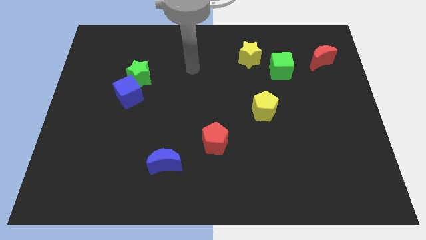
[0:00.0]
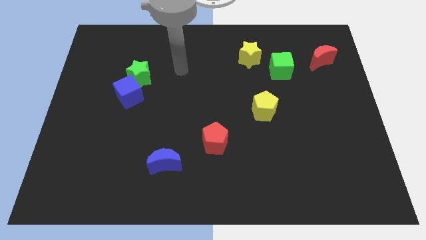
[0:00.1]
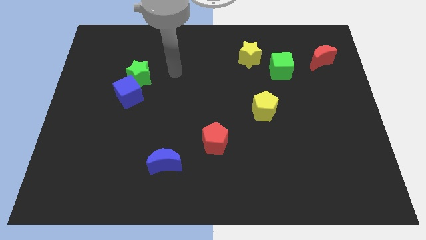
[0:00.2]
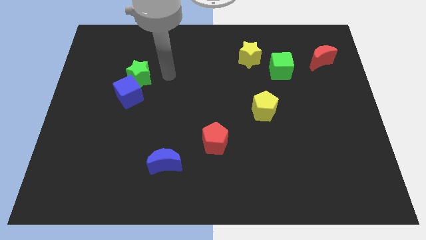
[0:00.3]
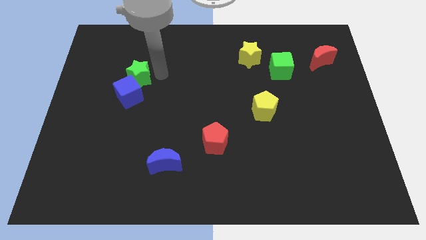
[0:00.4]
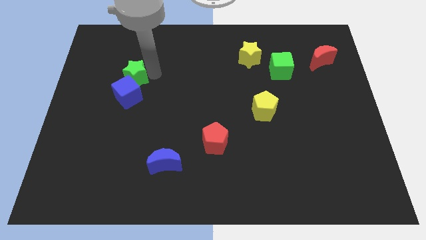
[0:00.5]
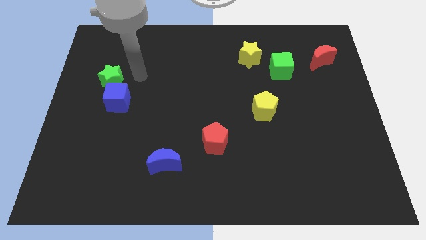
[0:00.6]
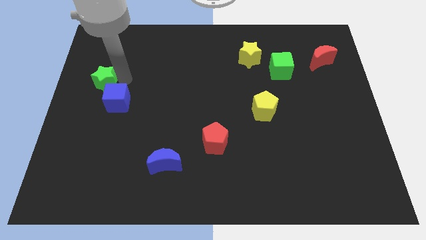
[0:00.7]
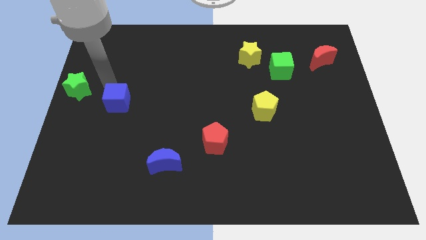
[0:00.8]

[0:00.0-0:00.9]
move the blue cube away from the green star

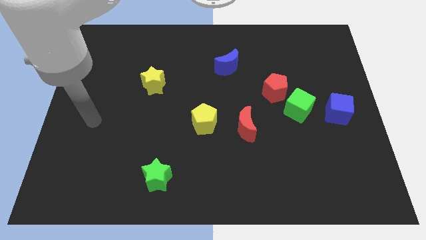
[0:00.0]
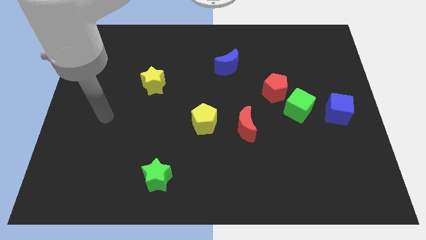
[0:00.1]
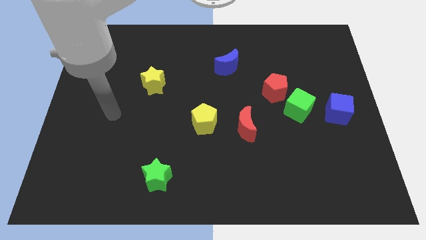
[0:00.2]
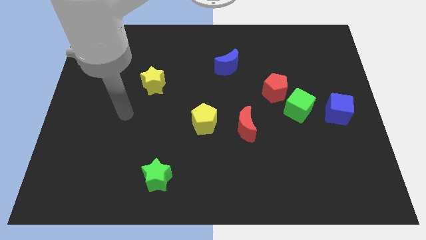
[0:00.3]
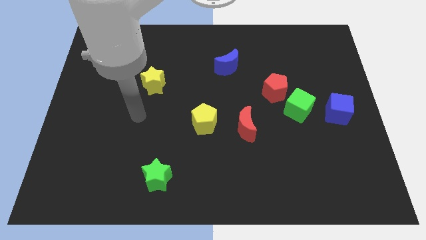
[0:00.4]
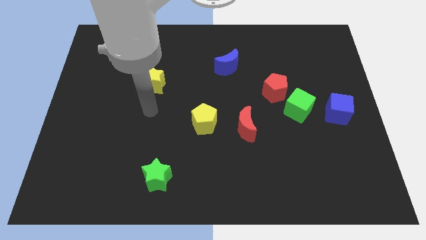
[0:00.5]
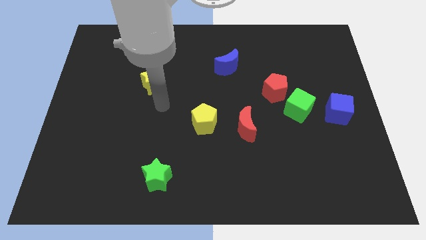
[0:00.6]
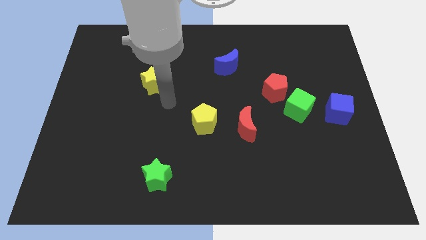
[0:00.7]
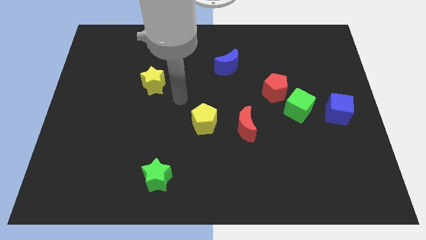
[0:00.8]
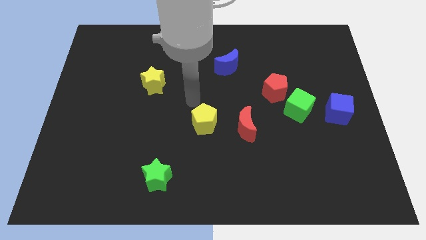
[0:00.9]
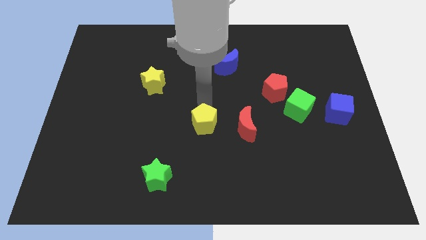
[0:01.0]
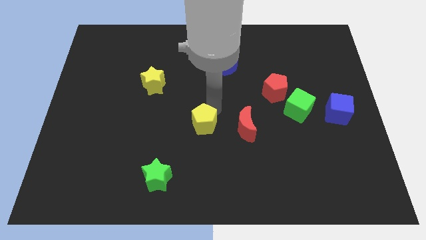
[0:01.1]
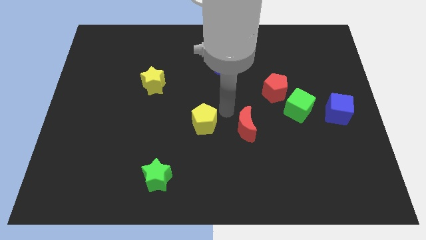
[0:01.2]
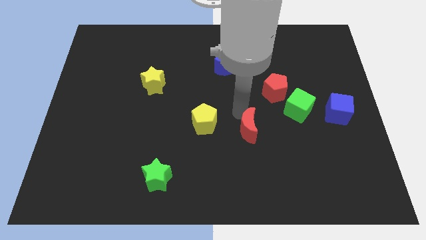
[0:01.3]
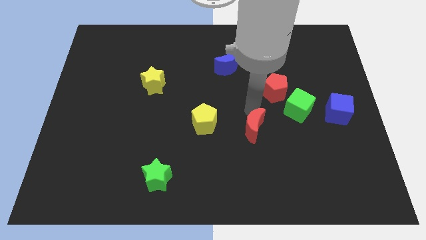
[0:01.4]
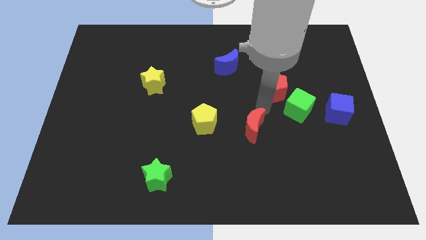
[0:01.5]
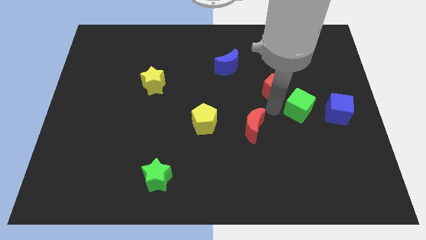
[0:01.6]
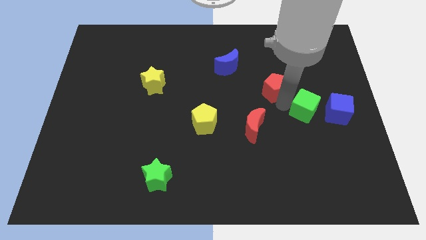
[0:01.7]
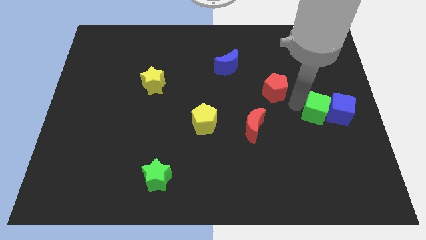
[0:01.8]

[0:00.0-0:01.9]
separate the red pentagon from the green cube

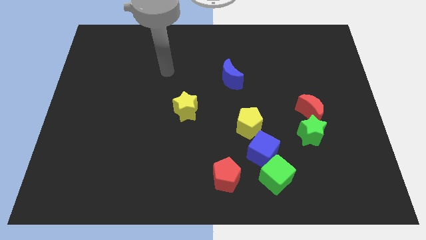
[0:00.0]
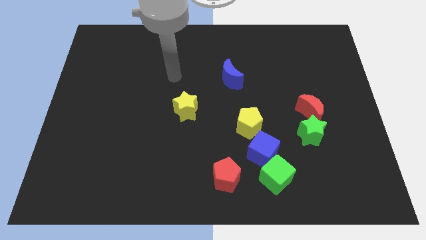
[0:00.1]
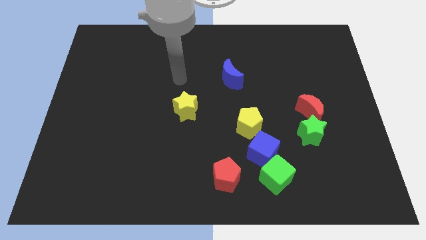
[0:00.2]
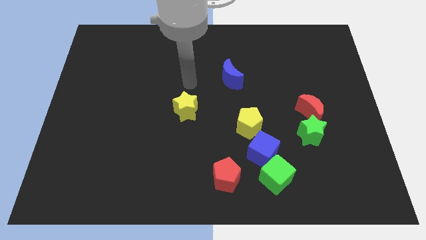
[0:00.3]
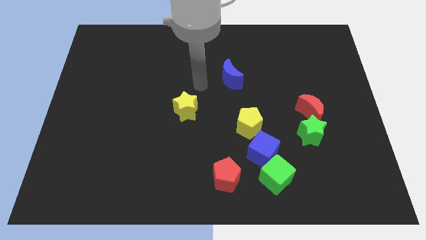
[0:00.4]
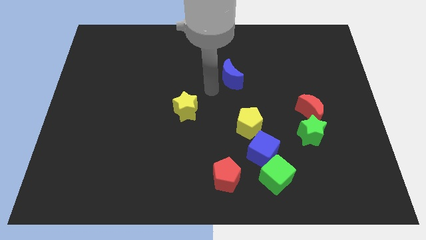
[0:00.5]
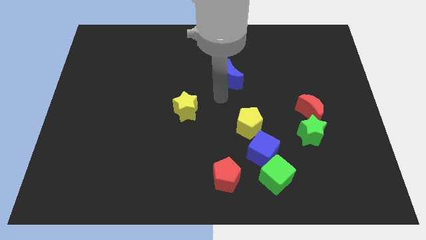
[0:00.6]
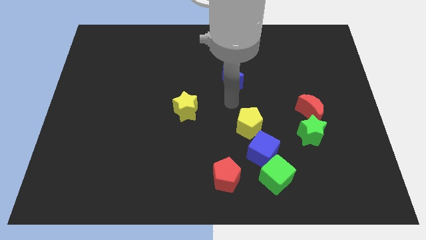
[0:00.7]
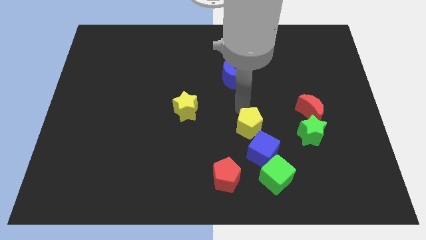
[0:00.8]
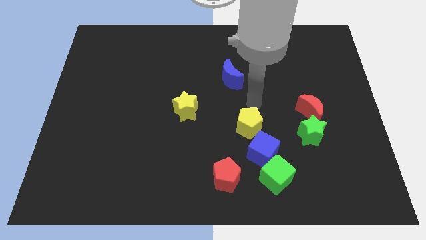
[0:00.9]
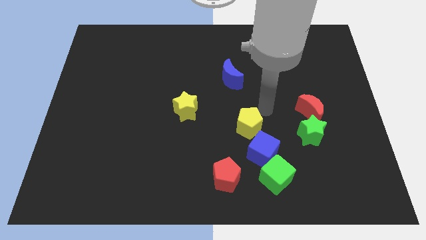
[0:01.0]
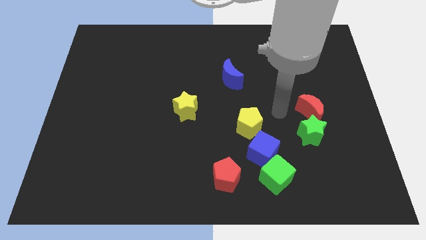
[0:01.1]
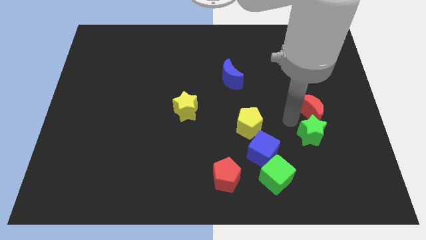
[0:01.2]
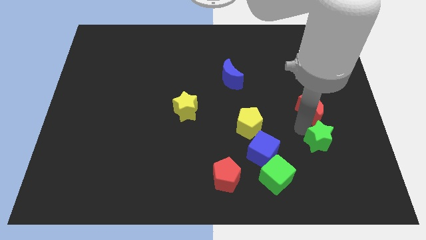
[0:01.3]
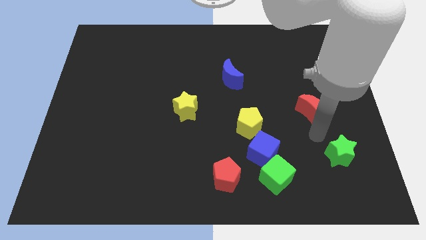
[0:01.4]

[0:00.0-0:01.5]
separate the red moon from the green star

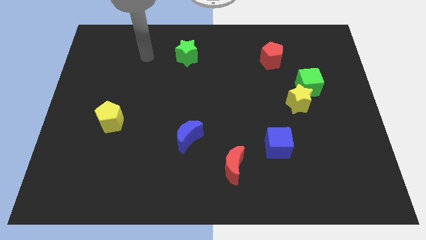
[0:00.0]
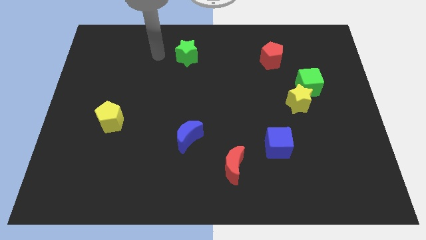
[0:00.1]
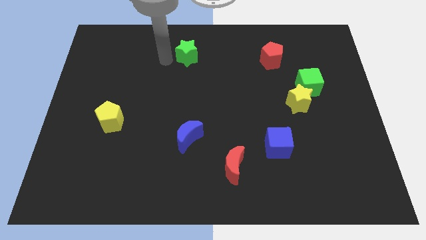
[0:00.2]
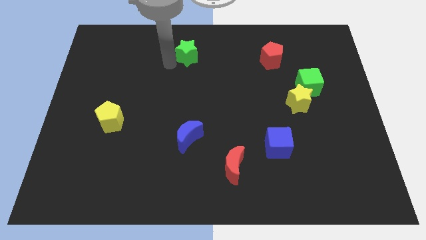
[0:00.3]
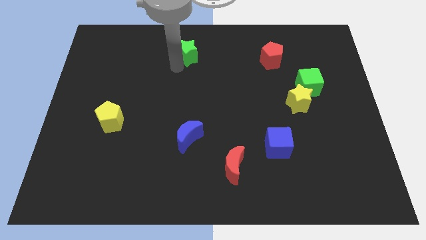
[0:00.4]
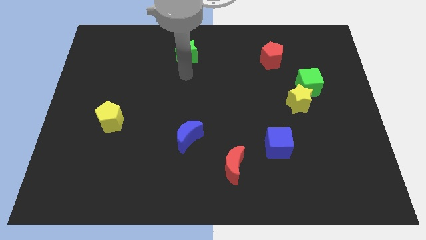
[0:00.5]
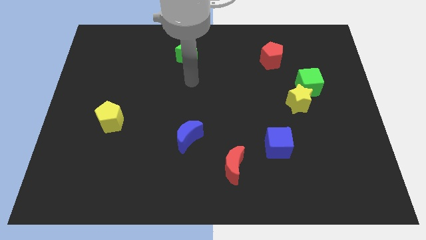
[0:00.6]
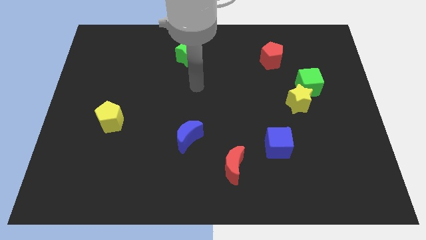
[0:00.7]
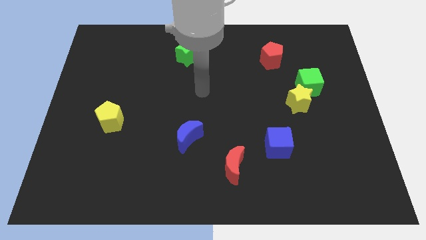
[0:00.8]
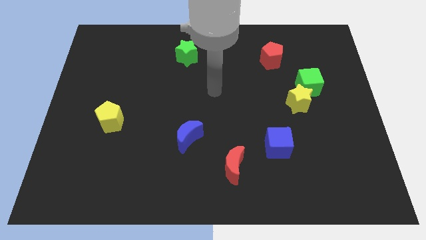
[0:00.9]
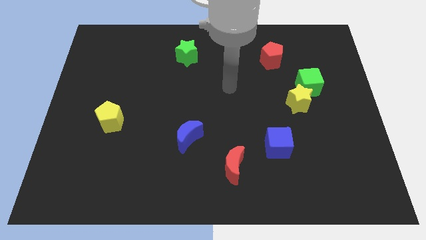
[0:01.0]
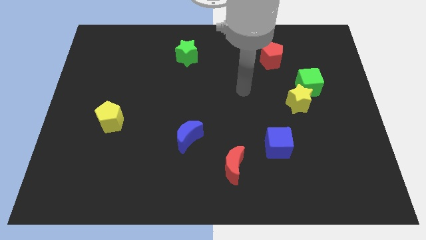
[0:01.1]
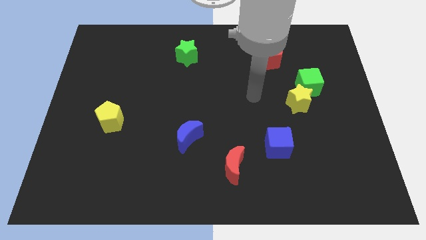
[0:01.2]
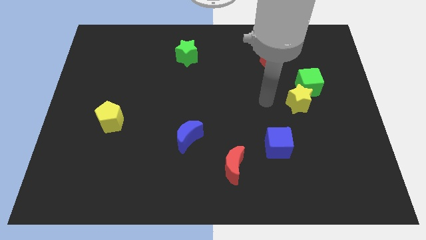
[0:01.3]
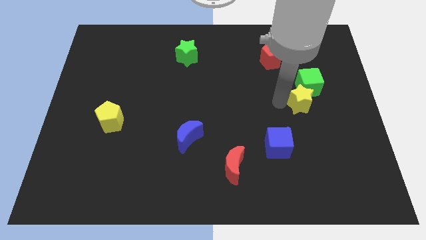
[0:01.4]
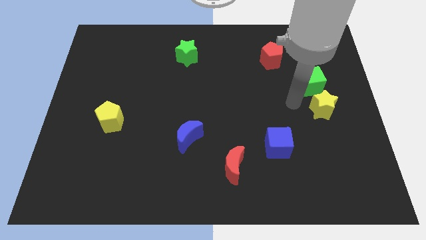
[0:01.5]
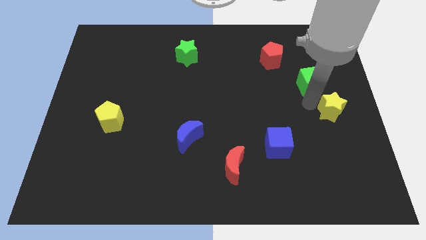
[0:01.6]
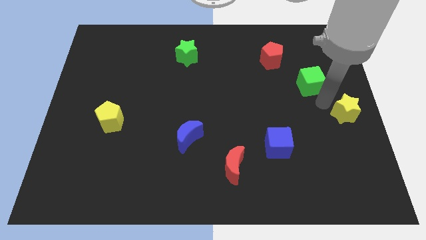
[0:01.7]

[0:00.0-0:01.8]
pull the green cube apart from the yellow star

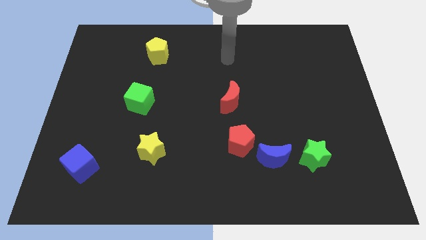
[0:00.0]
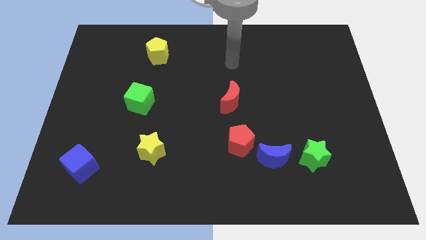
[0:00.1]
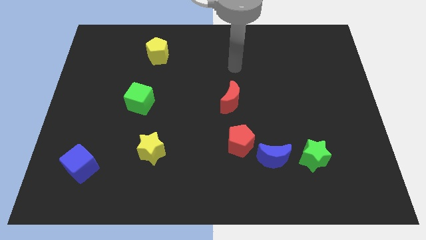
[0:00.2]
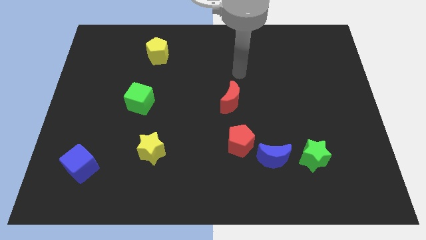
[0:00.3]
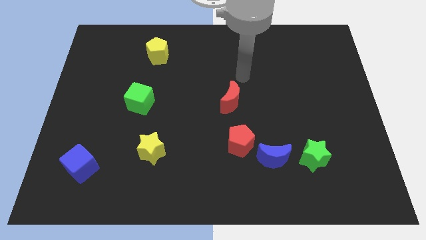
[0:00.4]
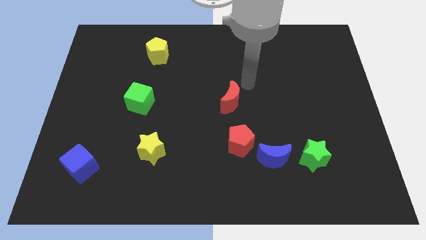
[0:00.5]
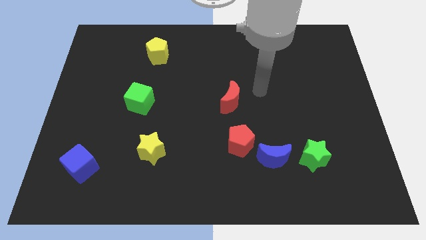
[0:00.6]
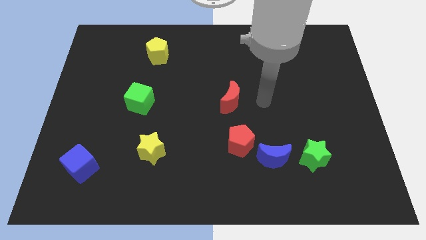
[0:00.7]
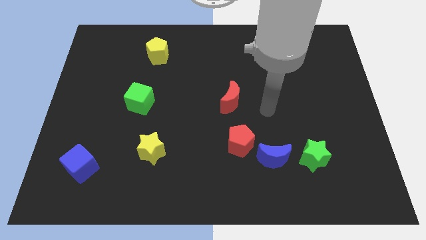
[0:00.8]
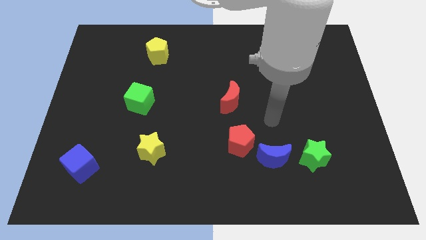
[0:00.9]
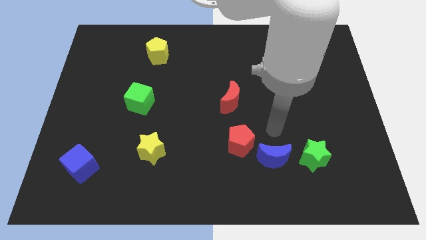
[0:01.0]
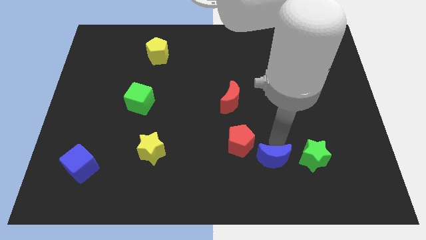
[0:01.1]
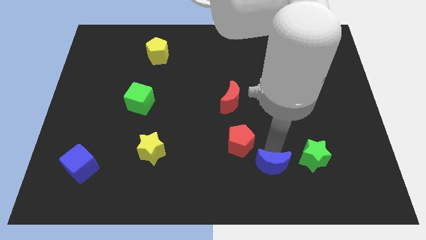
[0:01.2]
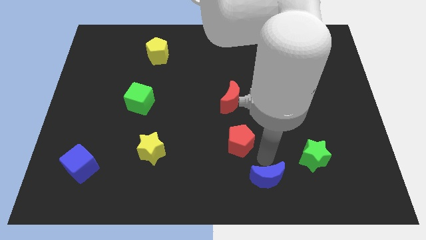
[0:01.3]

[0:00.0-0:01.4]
pull the red pentagon apart from the blue moon

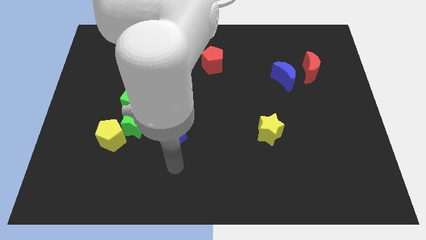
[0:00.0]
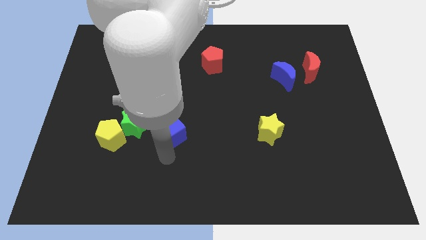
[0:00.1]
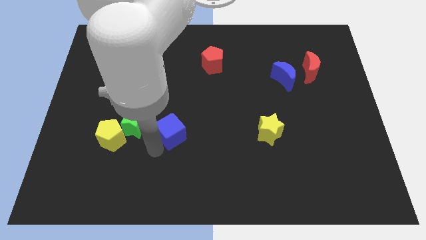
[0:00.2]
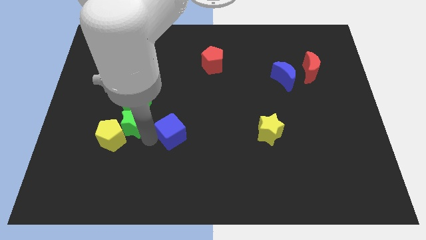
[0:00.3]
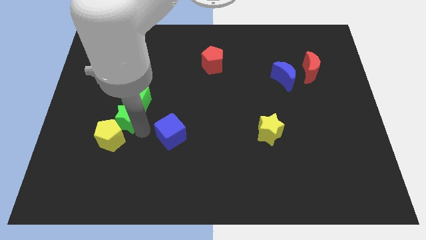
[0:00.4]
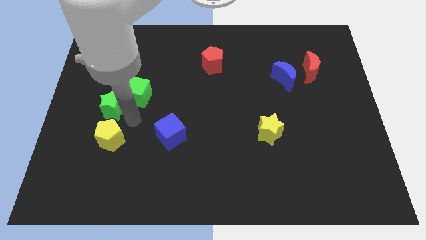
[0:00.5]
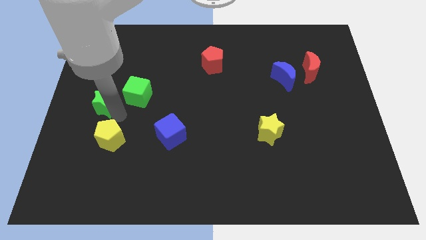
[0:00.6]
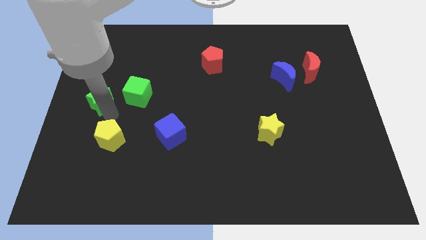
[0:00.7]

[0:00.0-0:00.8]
pull the yellow pentagon apart from the green star

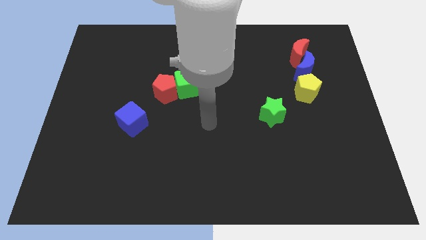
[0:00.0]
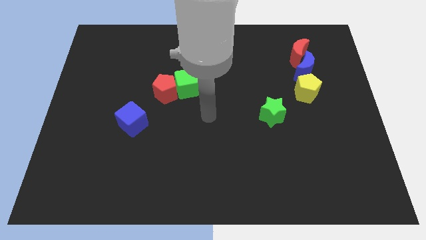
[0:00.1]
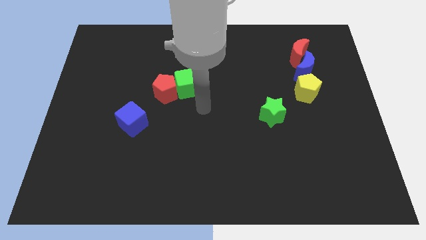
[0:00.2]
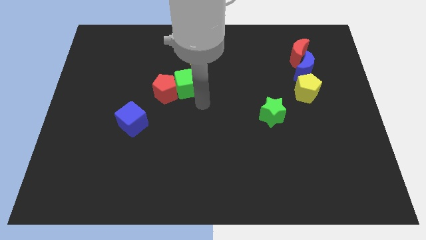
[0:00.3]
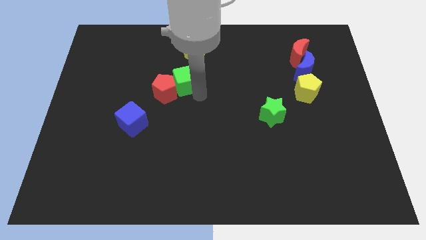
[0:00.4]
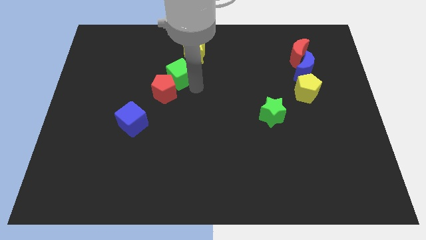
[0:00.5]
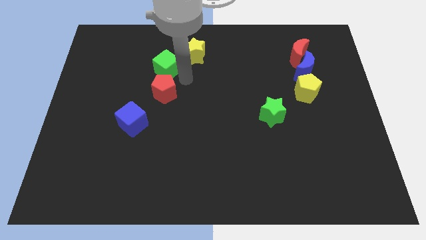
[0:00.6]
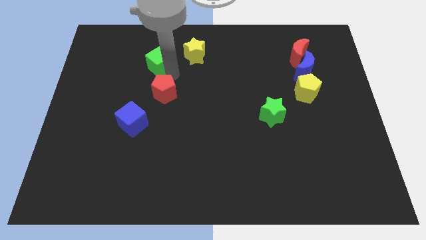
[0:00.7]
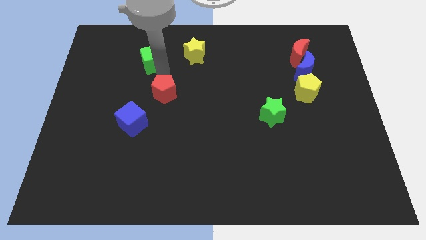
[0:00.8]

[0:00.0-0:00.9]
move the red pentagon away from the green cube
